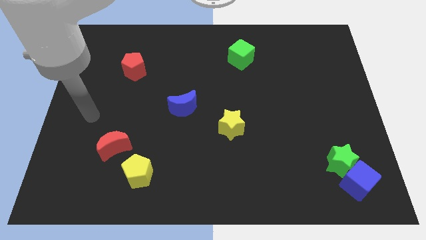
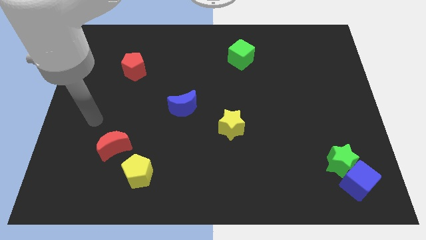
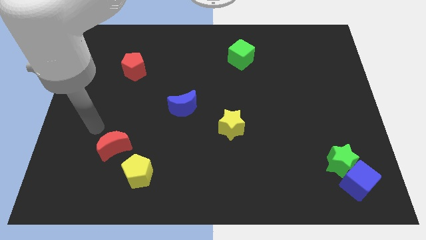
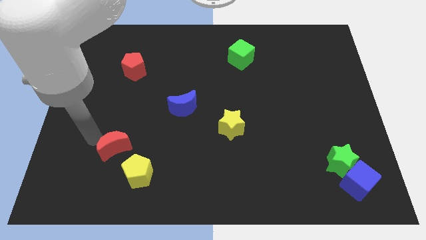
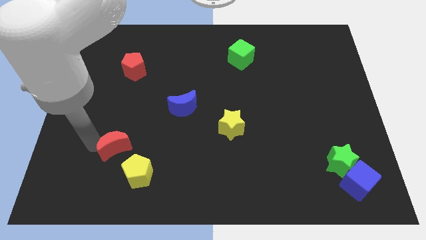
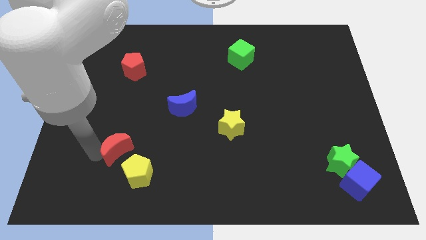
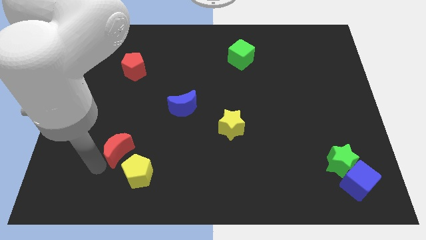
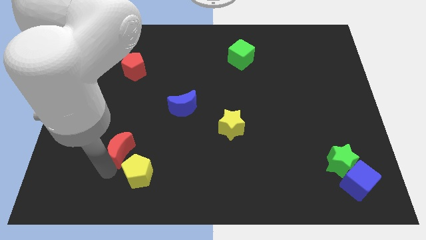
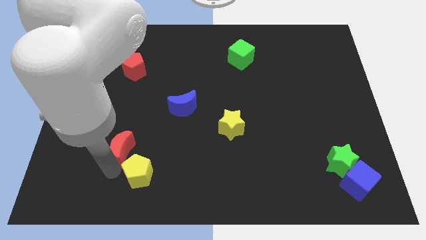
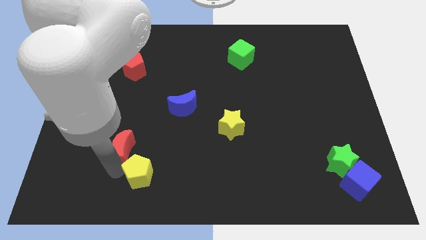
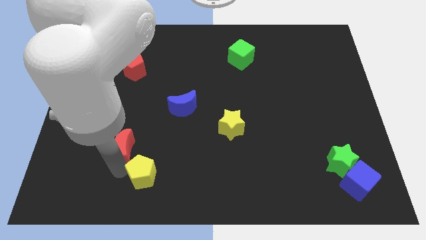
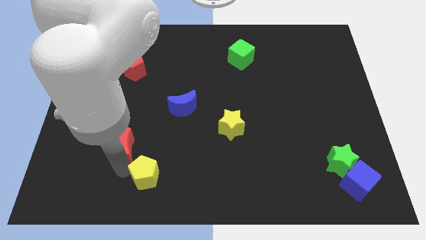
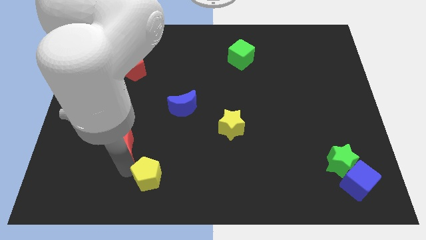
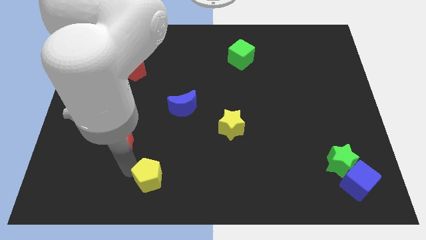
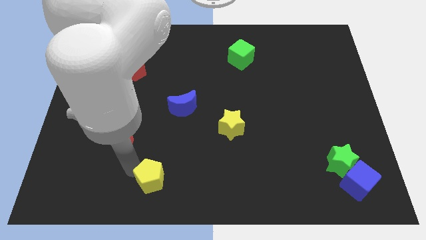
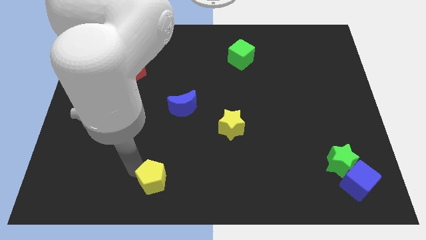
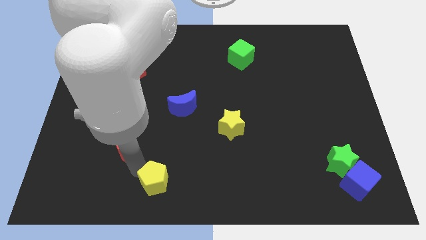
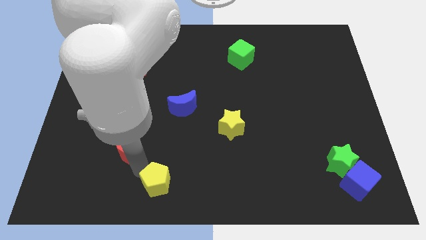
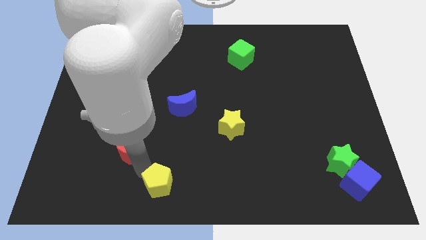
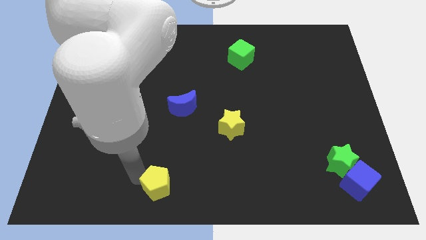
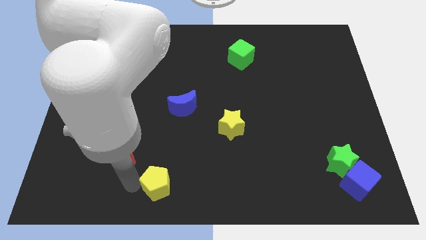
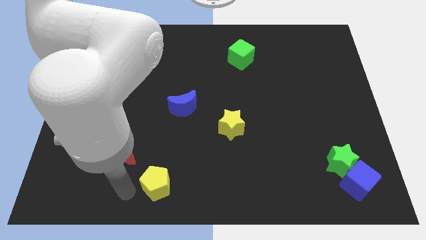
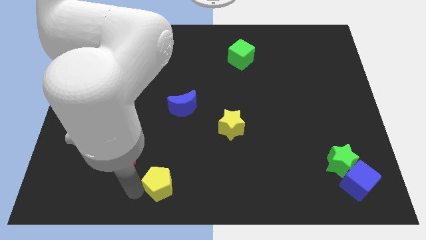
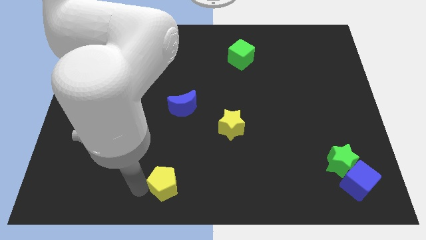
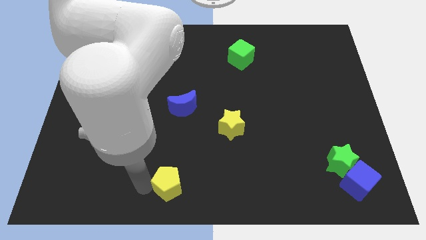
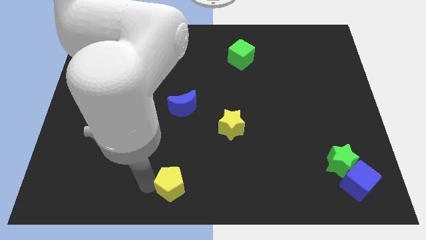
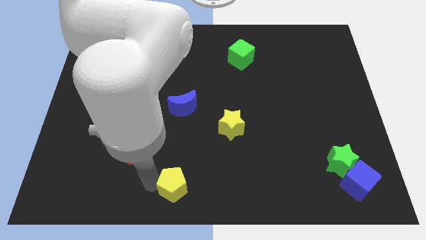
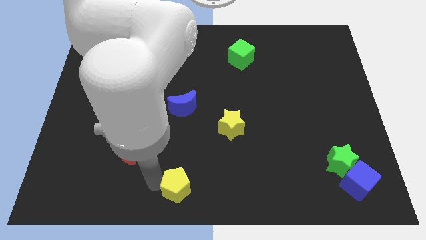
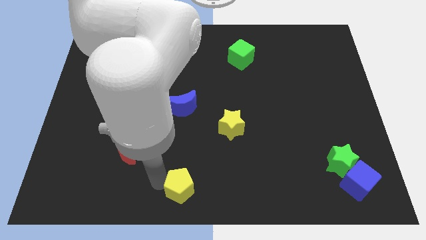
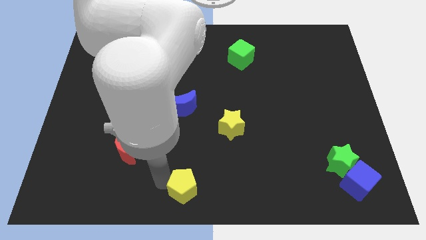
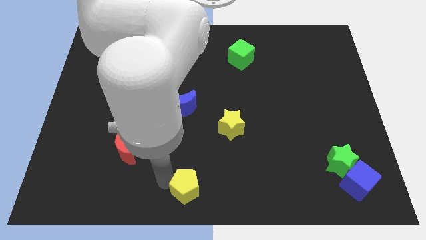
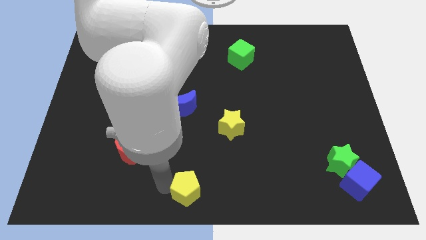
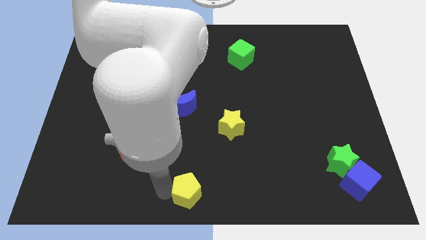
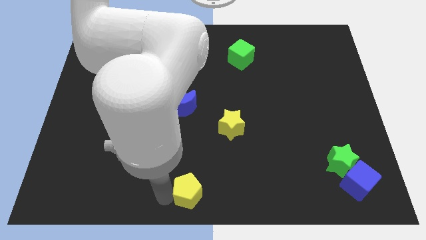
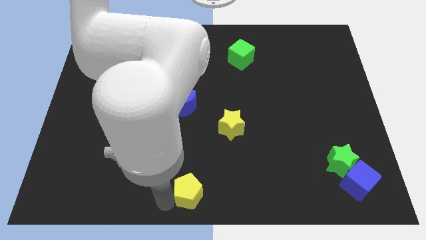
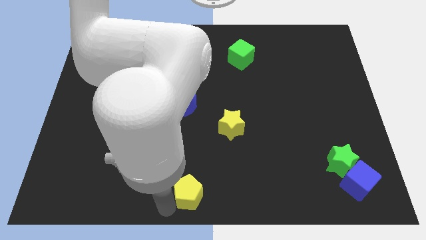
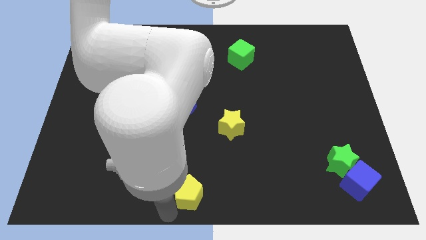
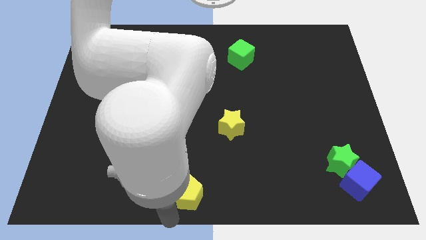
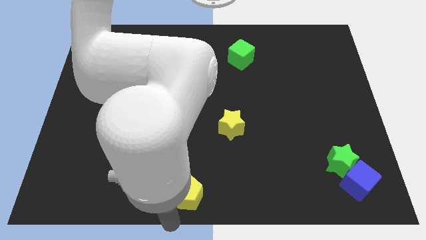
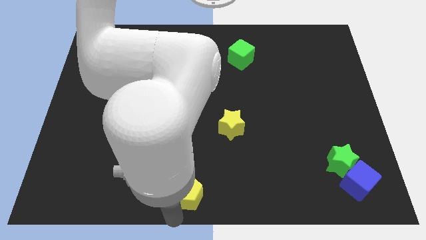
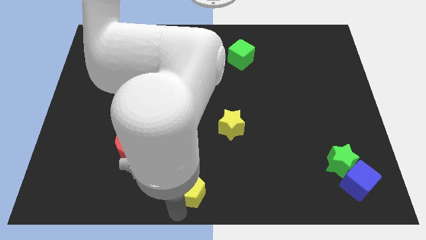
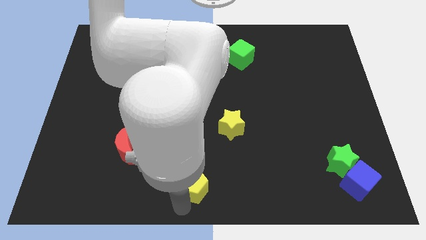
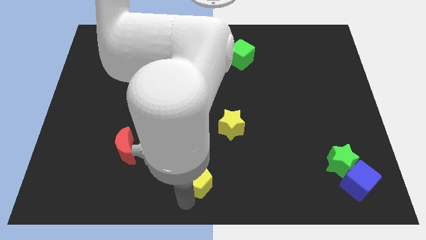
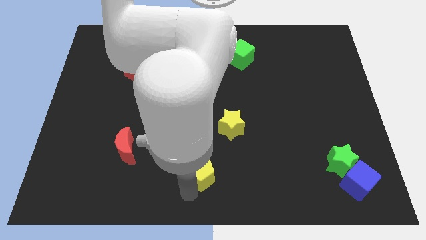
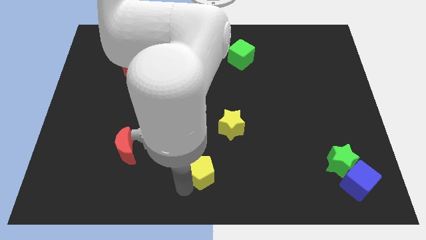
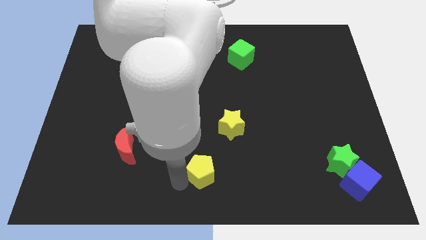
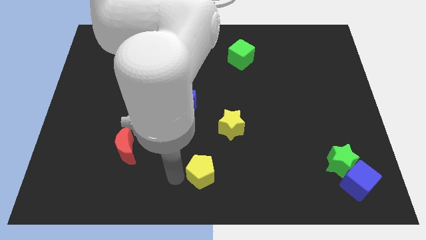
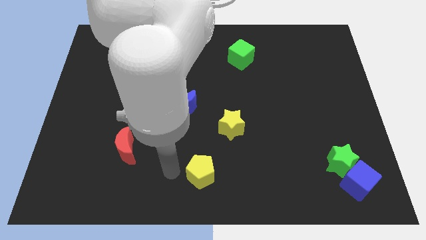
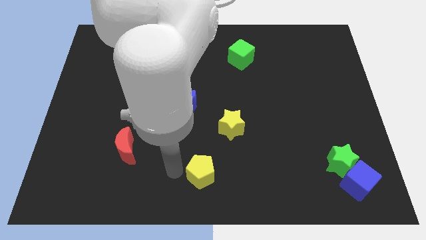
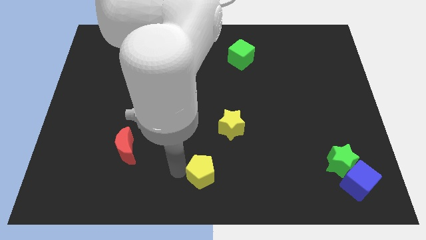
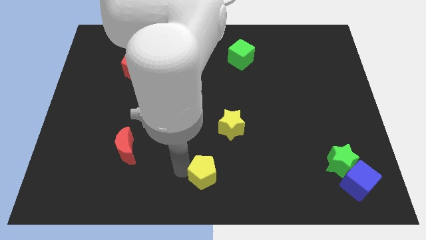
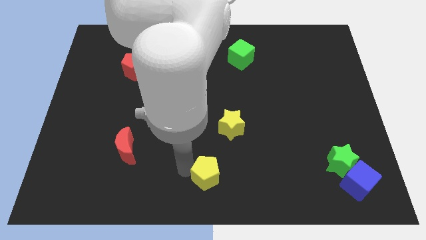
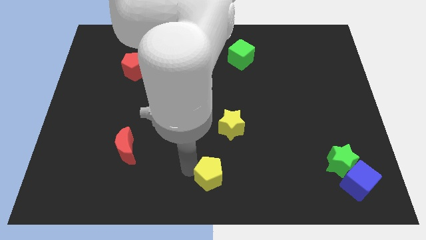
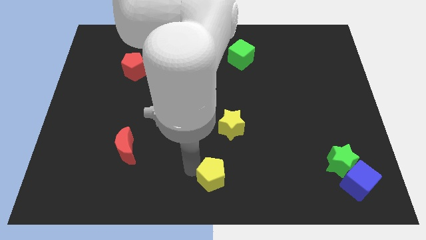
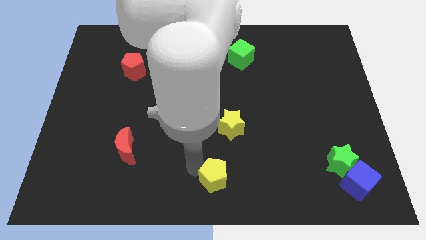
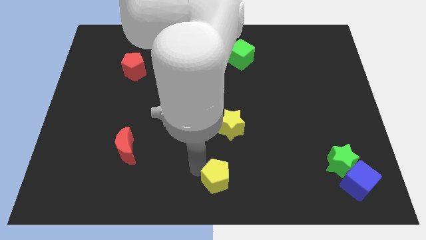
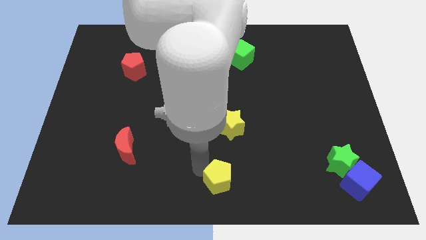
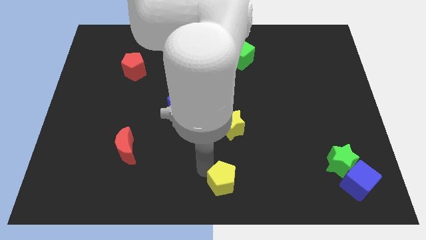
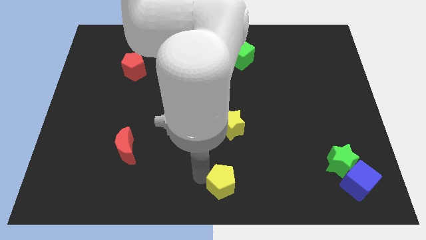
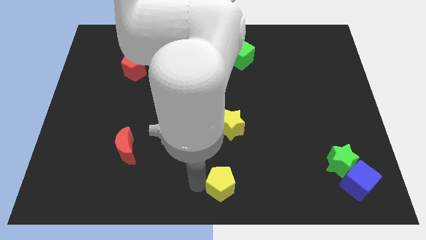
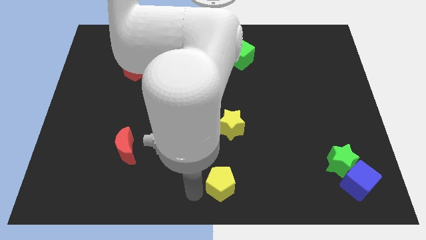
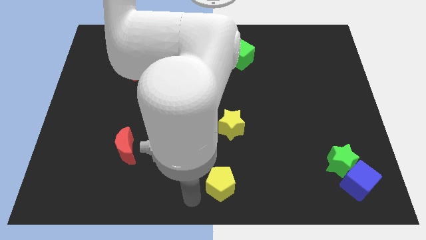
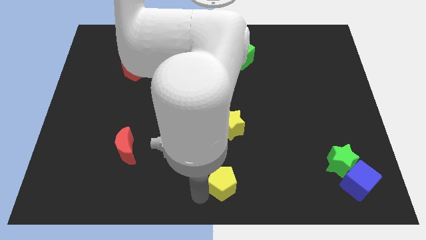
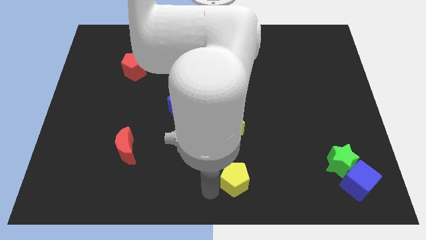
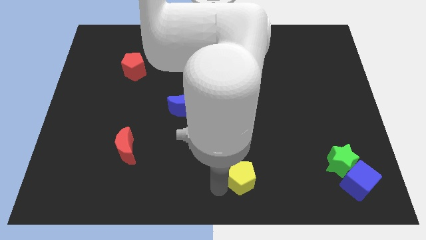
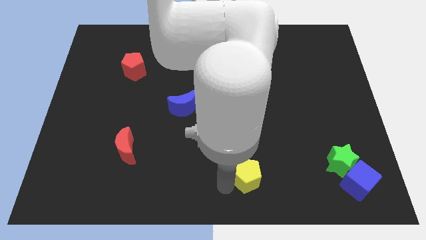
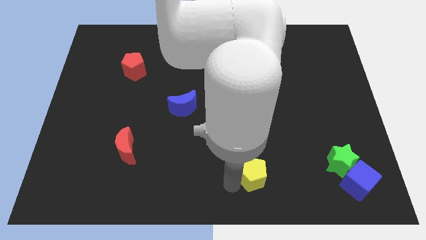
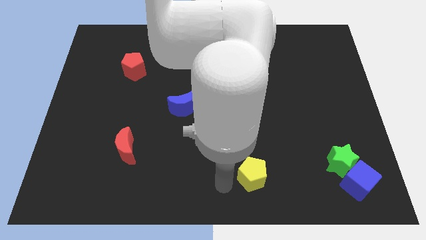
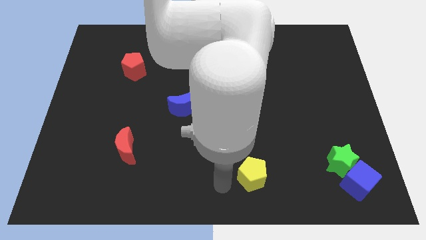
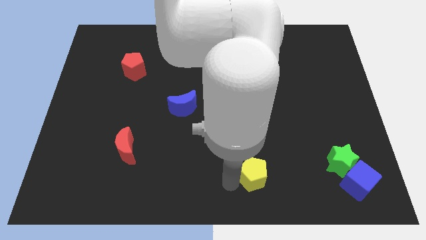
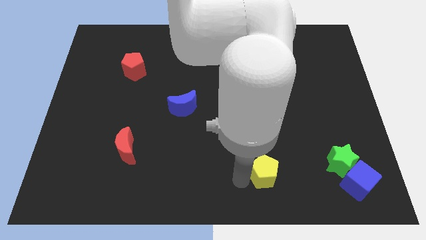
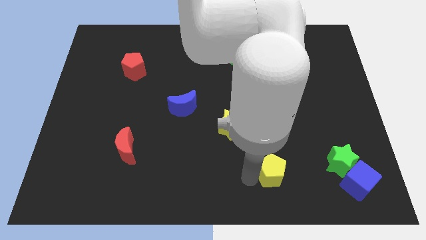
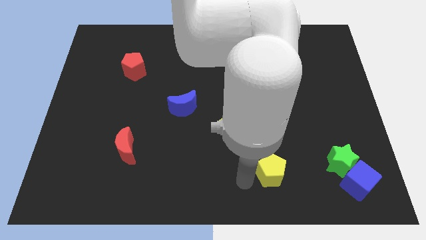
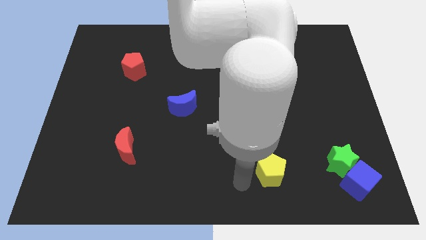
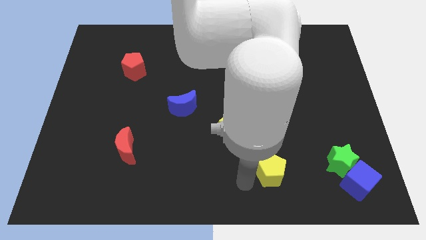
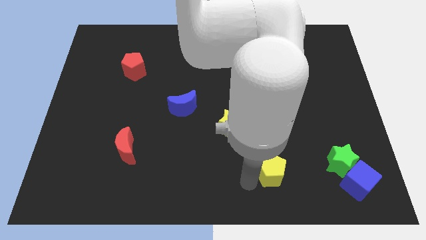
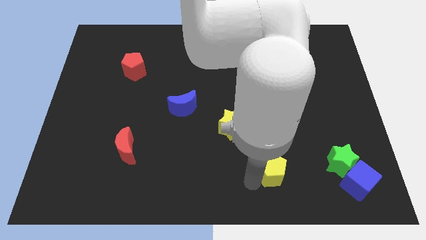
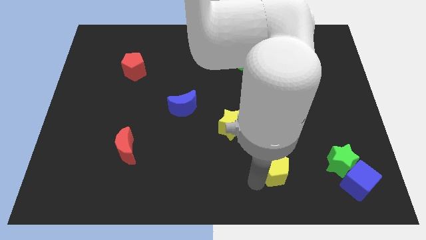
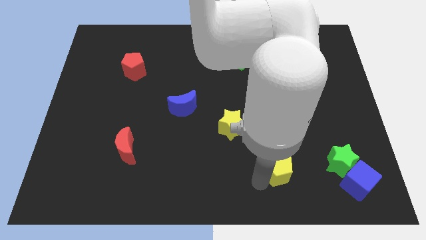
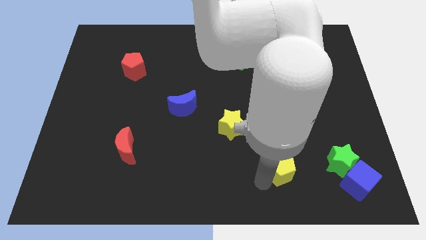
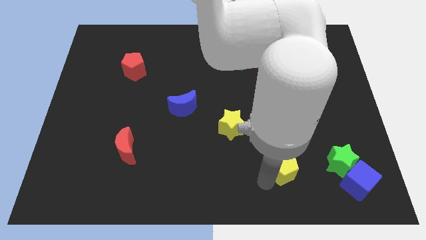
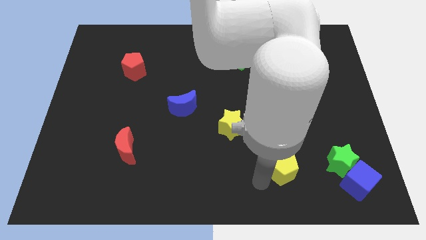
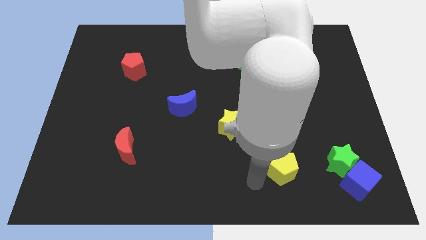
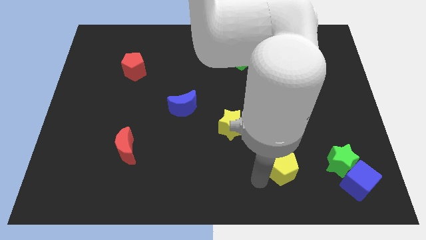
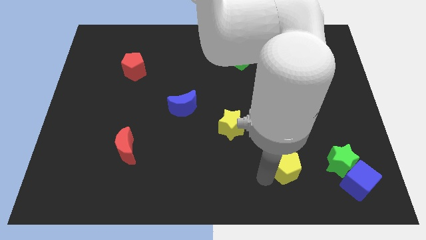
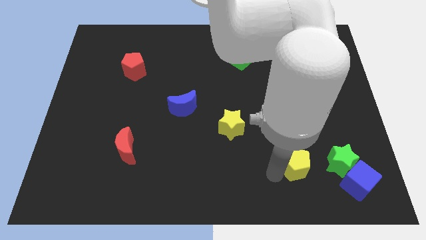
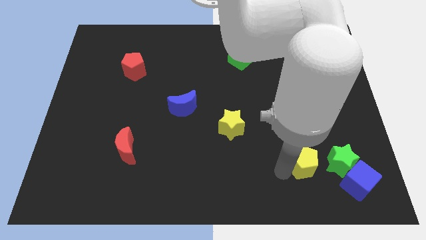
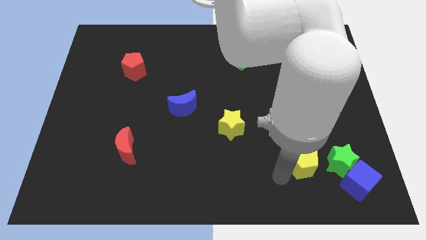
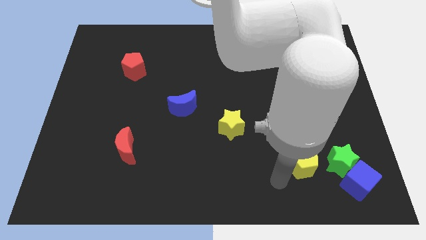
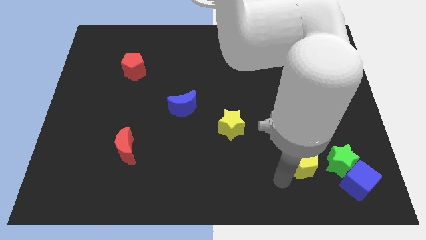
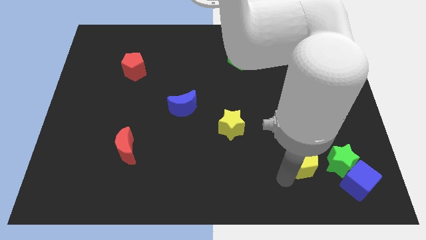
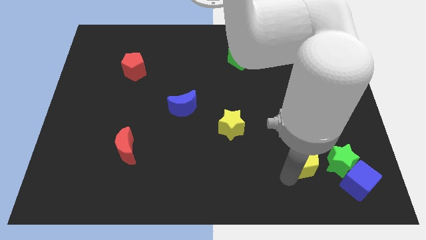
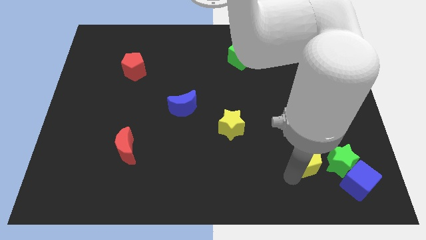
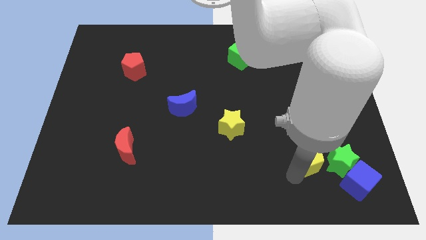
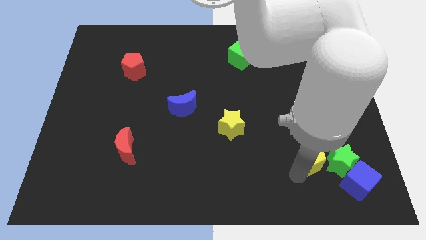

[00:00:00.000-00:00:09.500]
slide the yellow pentagon close to the green star
